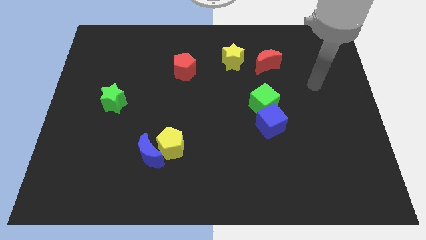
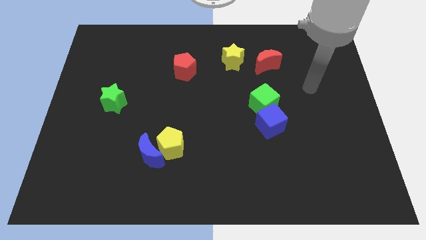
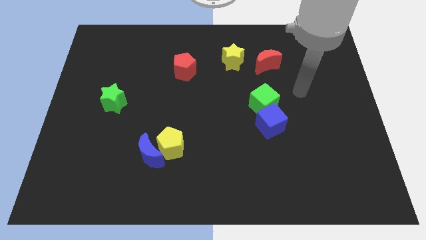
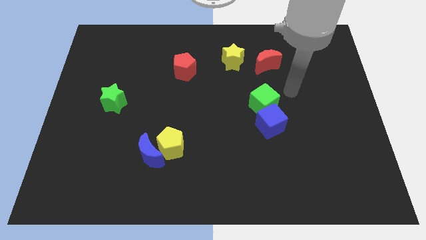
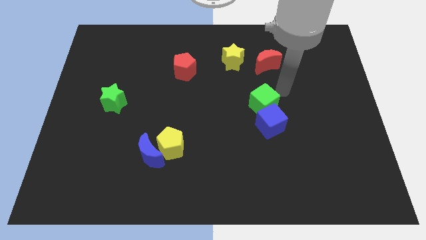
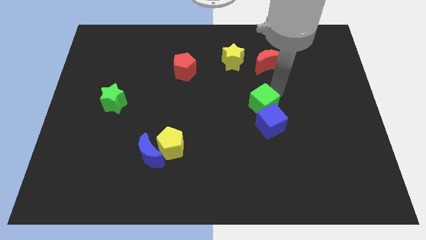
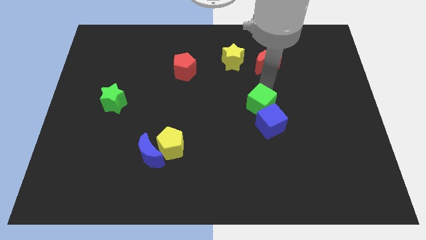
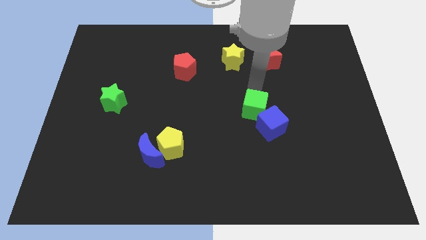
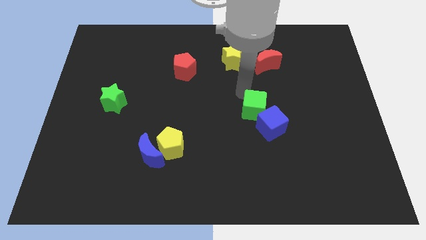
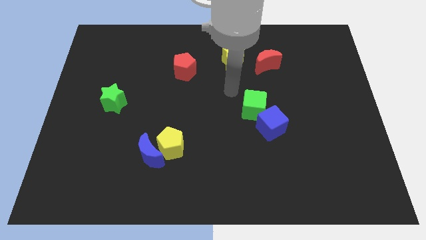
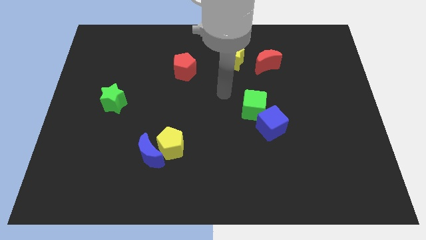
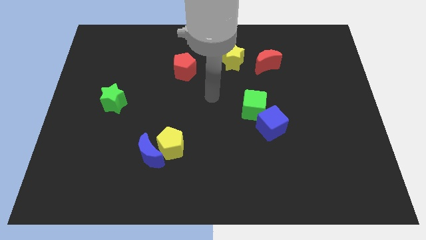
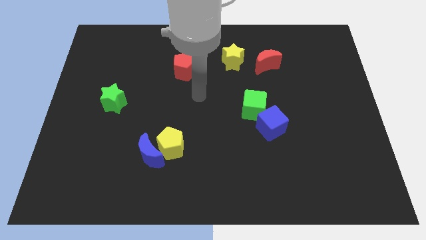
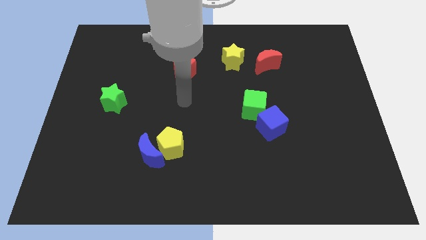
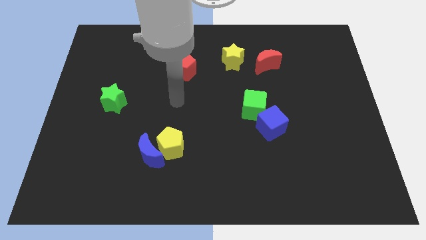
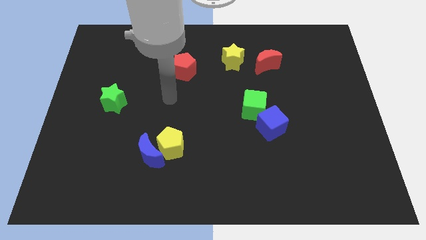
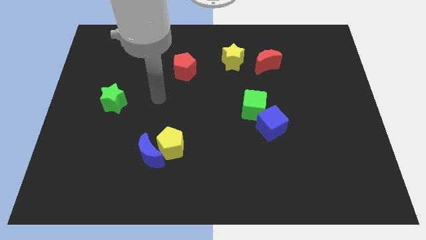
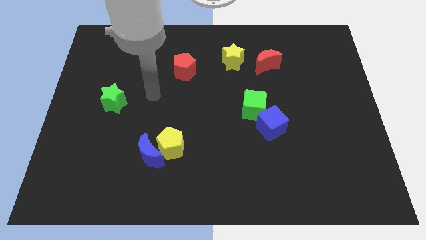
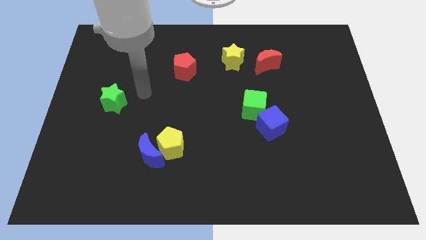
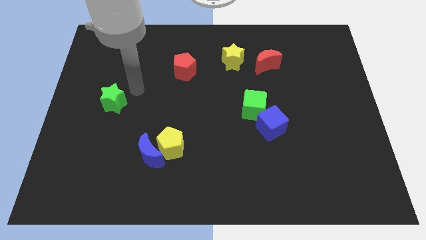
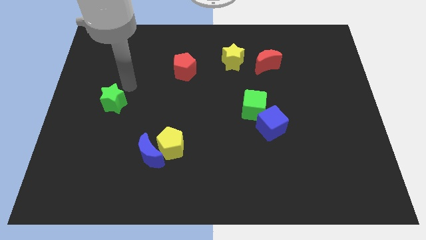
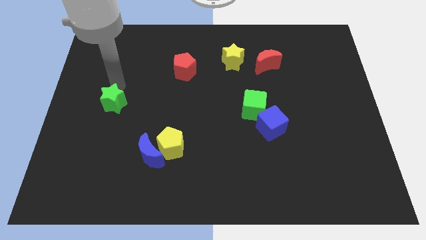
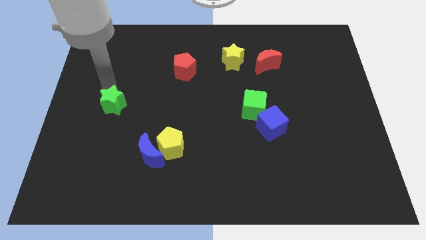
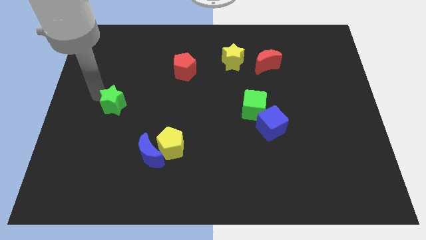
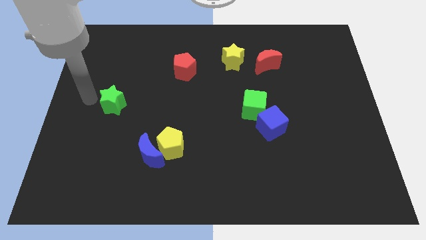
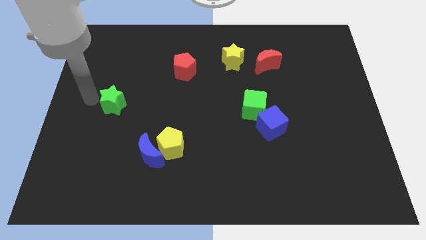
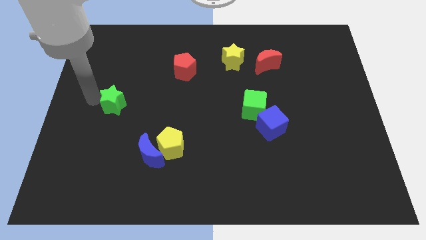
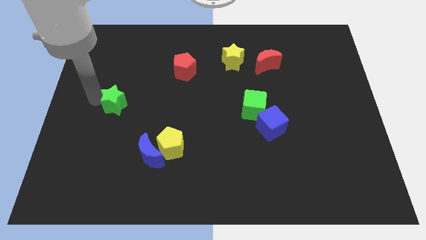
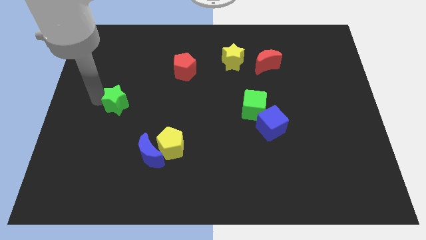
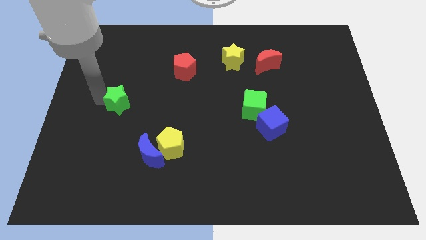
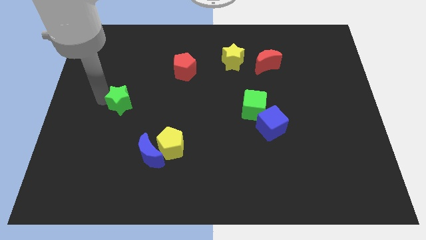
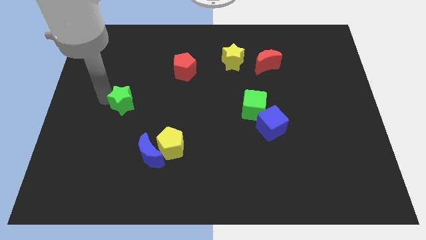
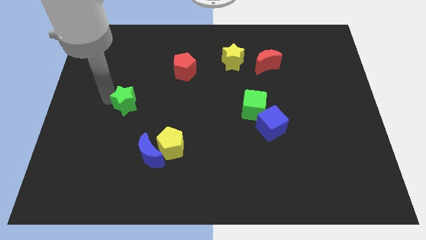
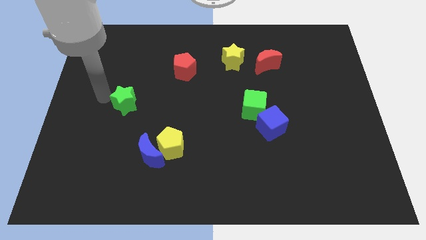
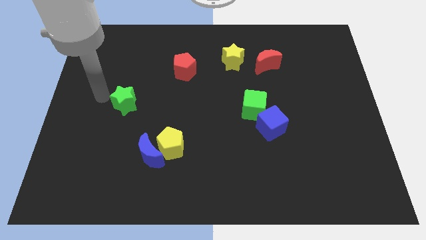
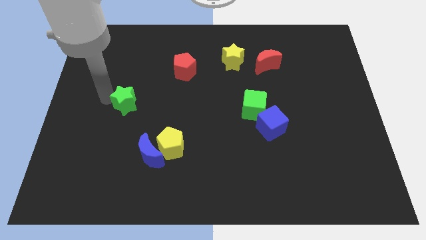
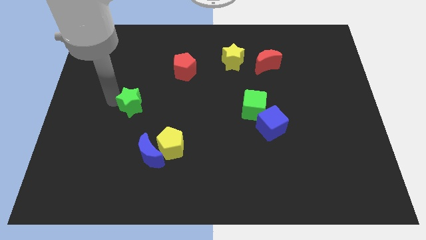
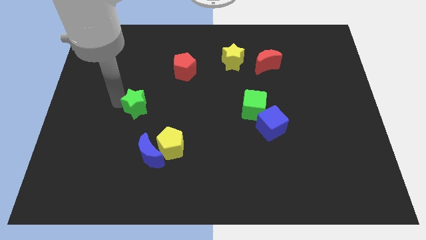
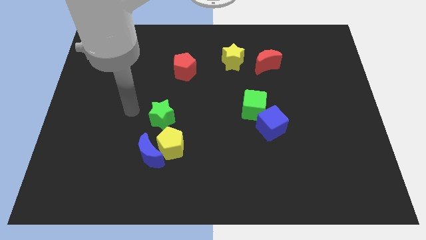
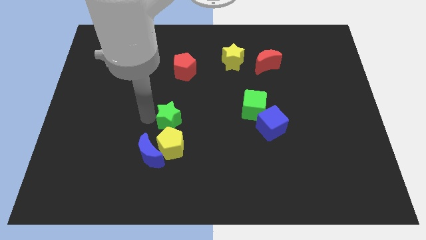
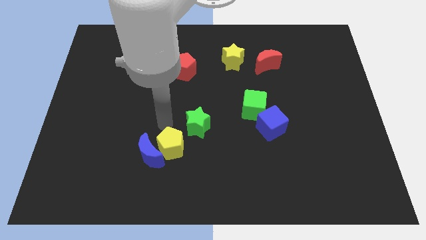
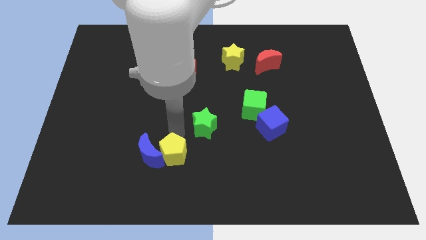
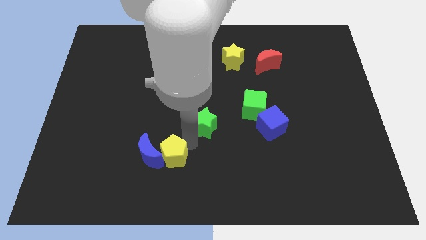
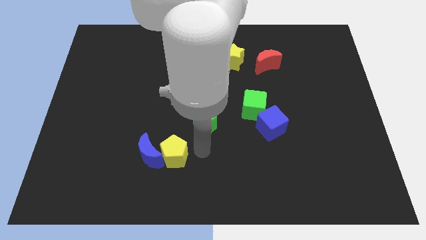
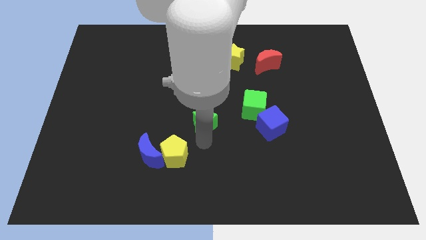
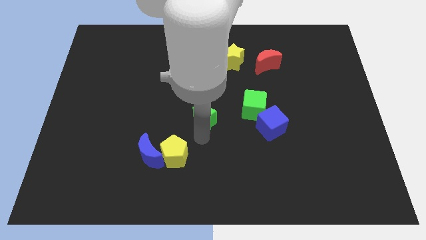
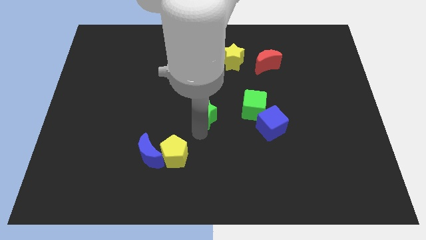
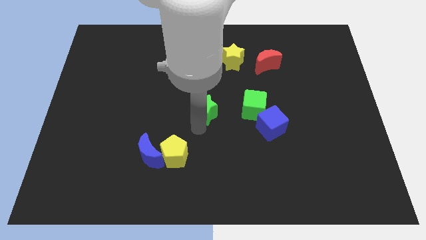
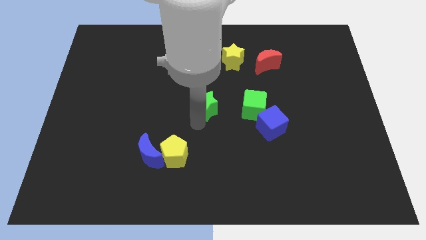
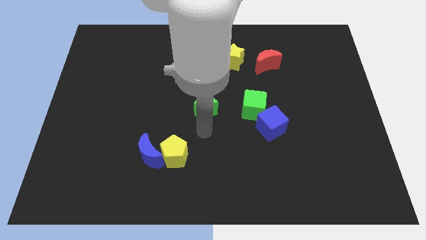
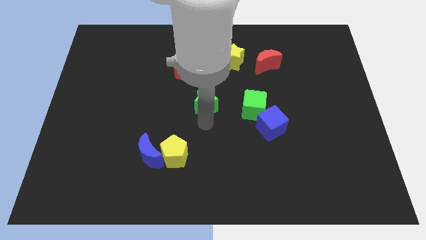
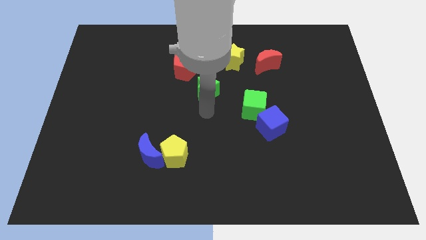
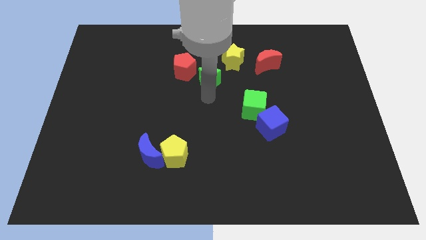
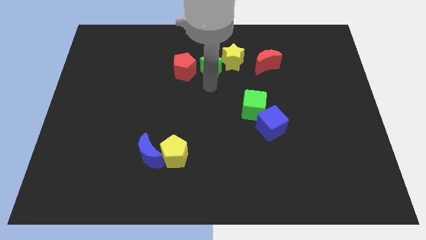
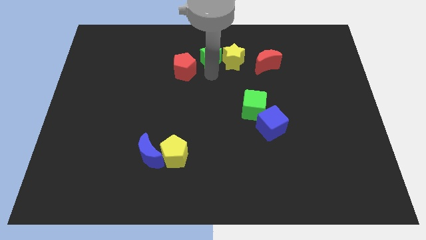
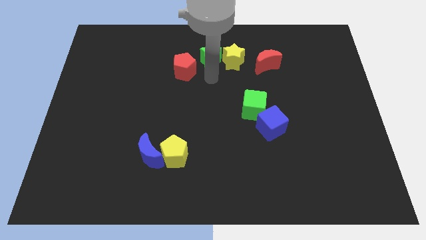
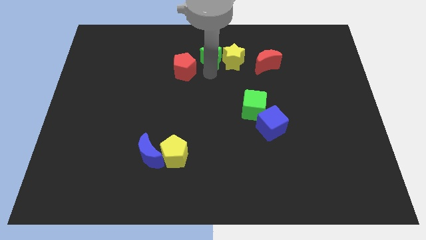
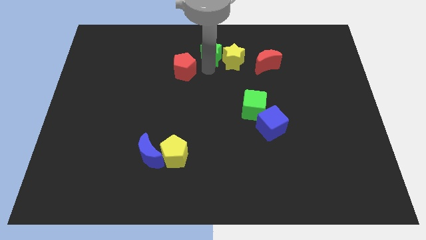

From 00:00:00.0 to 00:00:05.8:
move the green star to the top

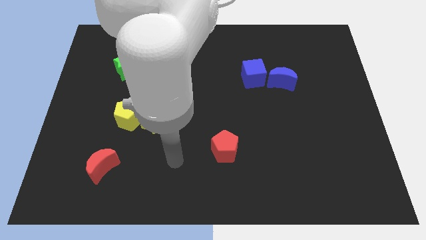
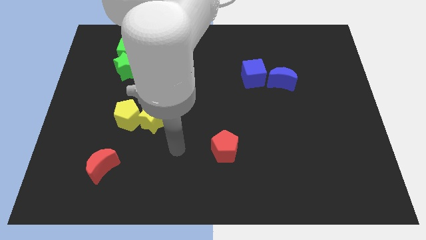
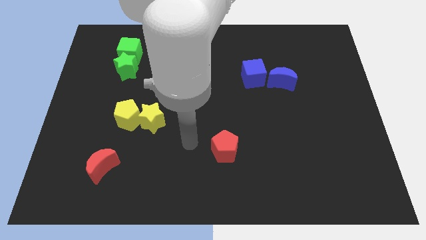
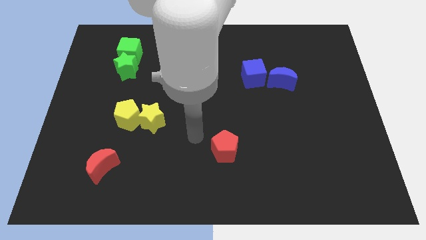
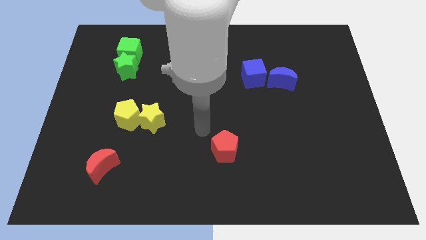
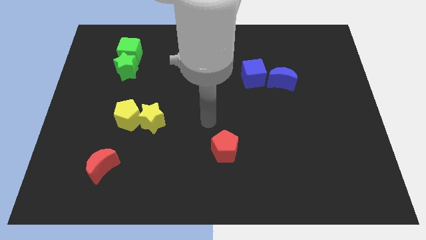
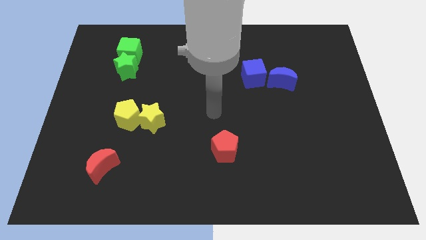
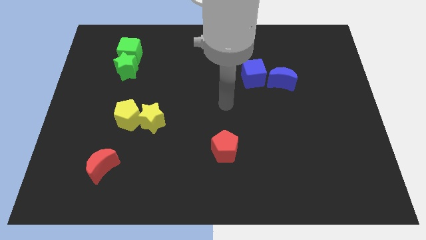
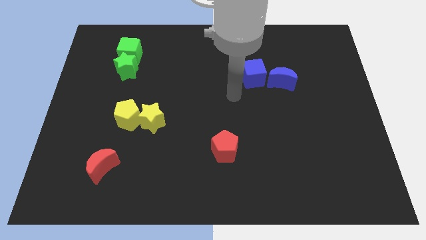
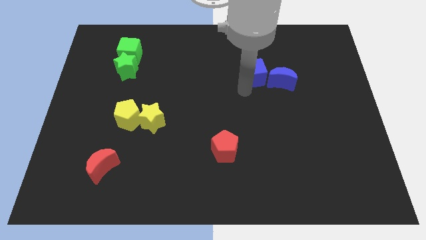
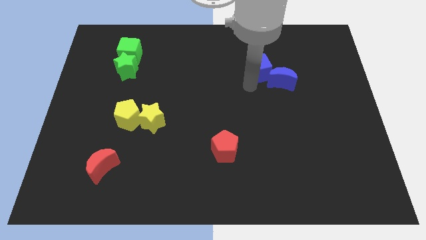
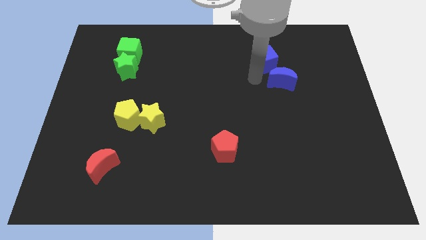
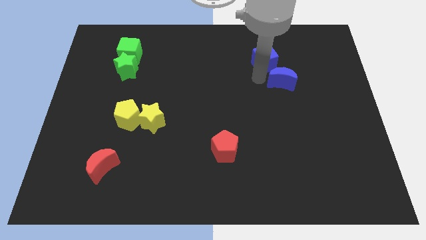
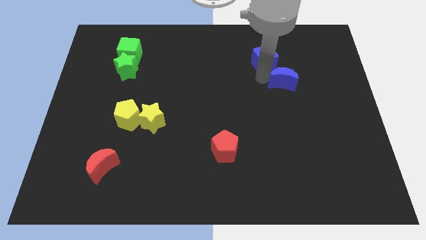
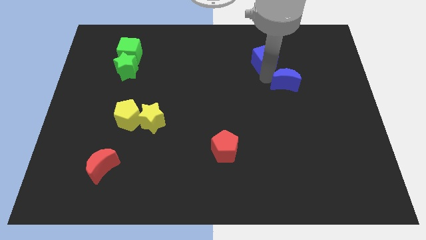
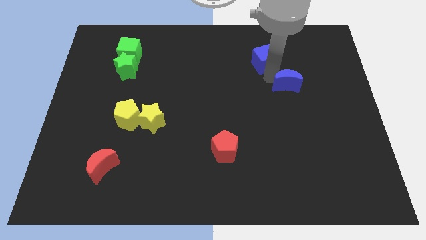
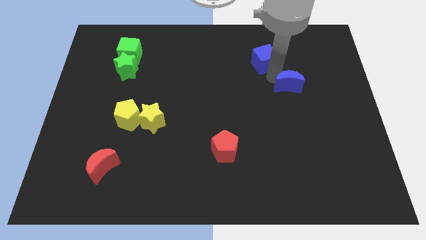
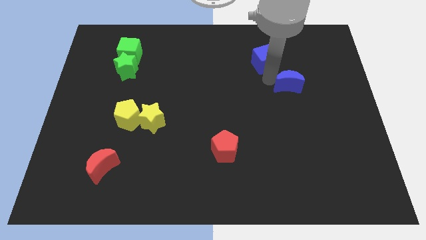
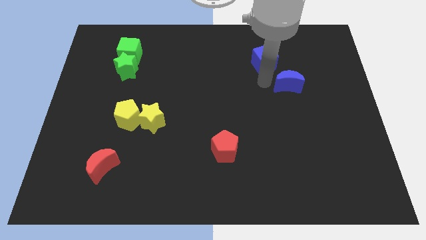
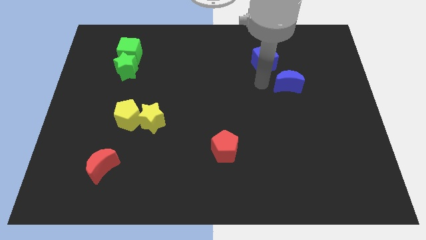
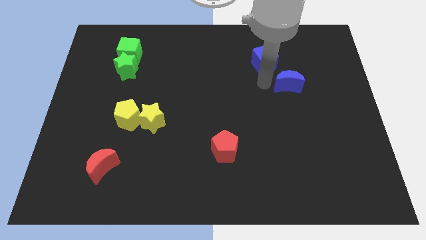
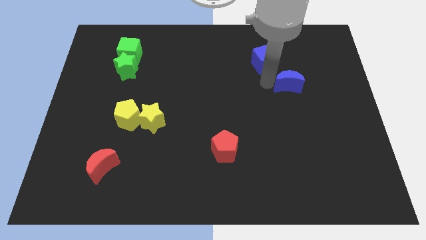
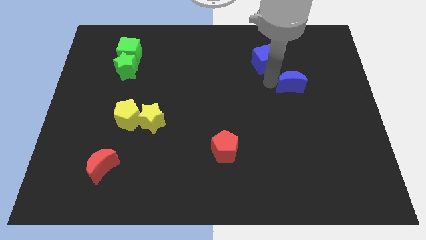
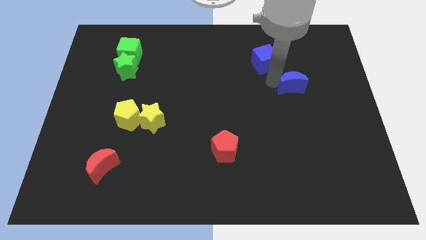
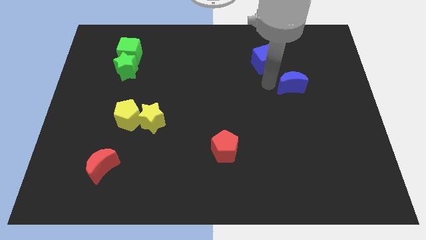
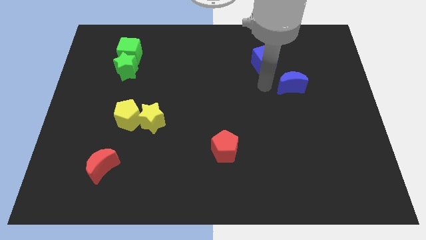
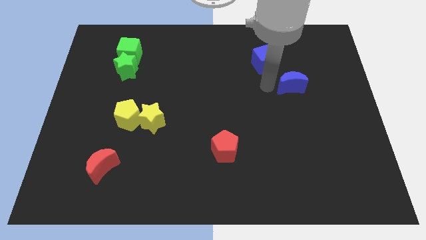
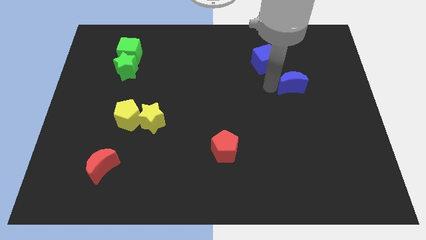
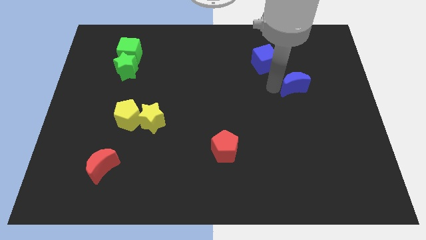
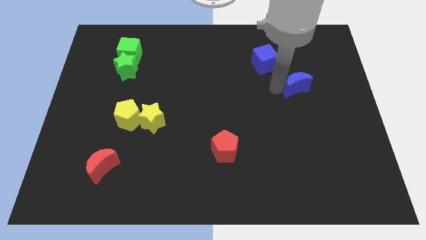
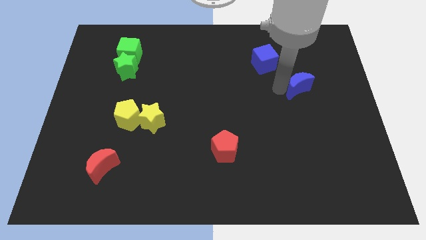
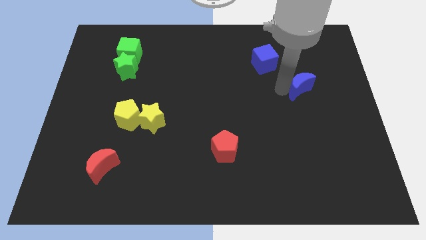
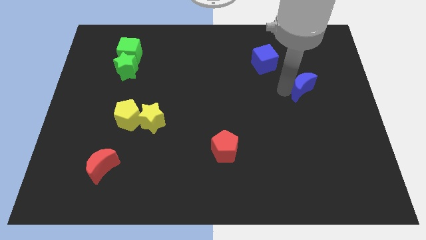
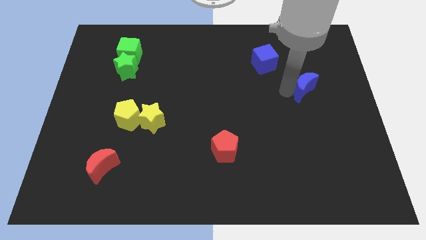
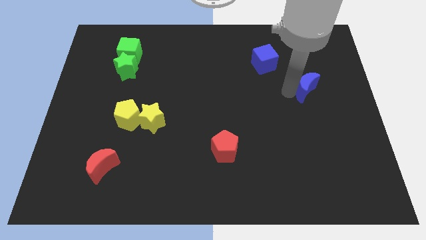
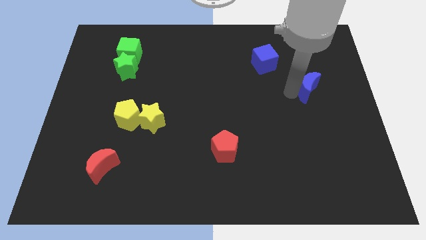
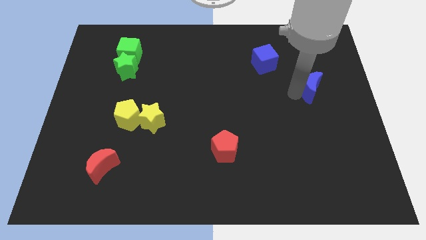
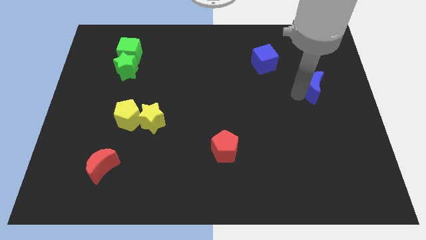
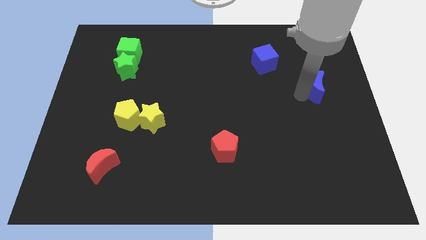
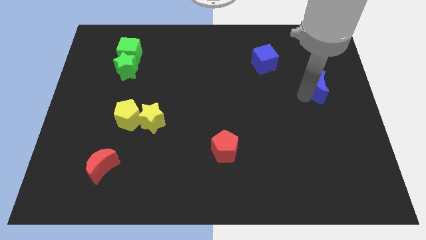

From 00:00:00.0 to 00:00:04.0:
put the blue moon to the center right
